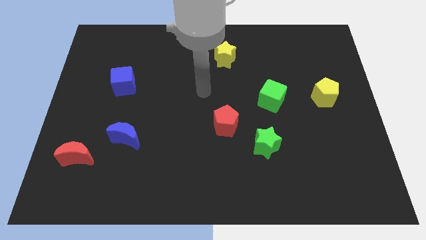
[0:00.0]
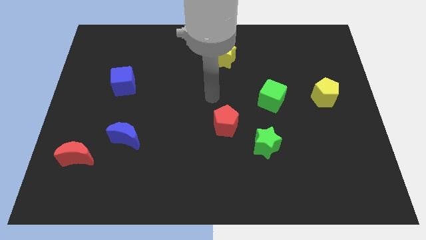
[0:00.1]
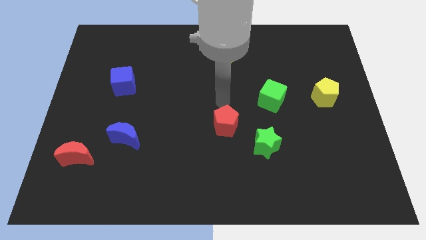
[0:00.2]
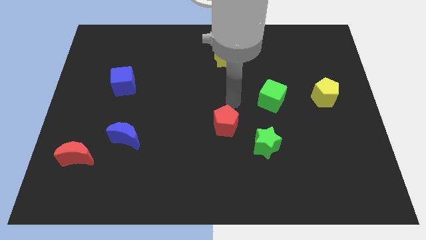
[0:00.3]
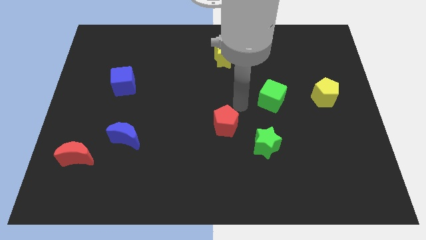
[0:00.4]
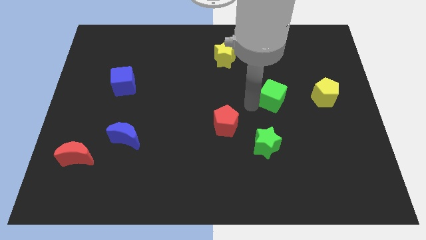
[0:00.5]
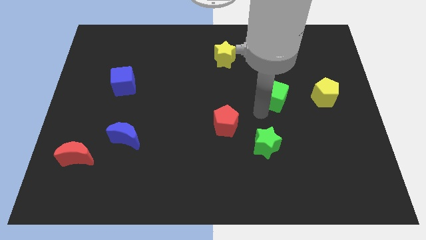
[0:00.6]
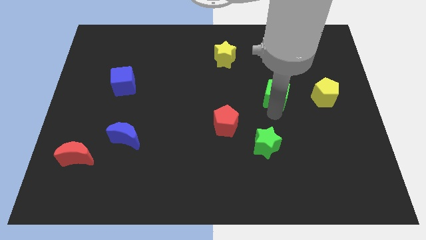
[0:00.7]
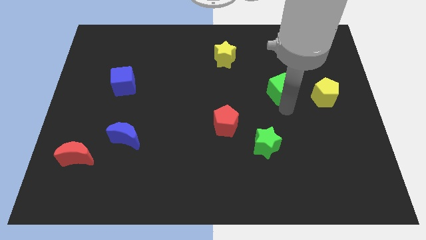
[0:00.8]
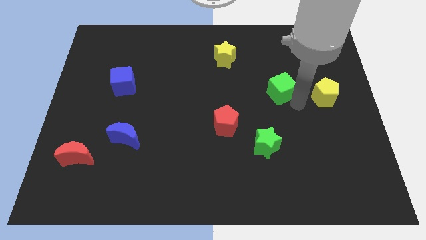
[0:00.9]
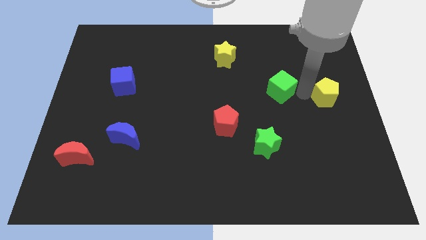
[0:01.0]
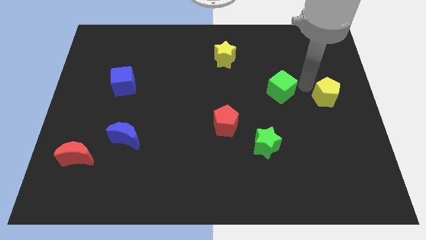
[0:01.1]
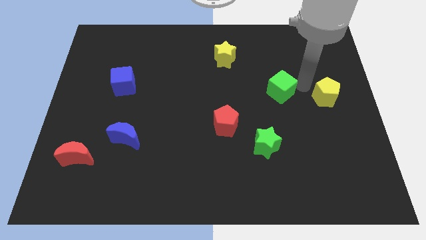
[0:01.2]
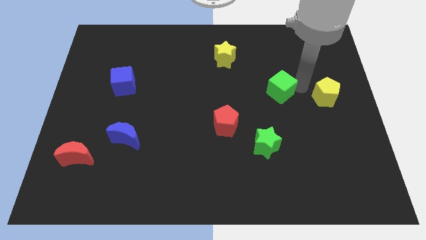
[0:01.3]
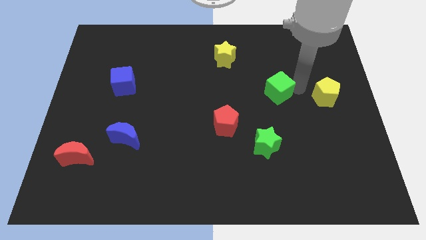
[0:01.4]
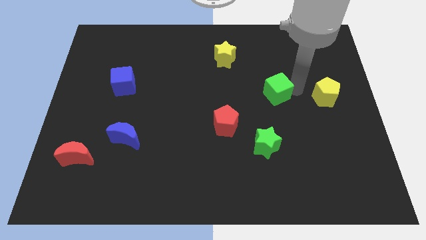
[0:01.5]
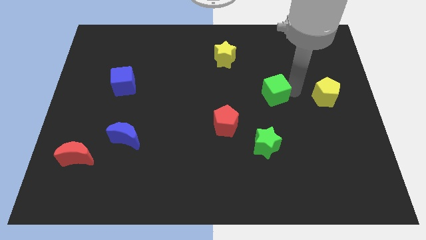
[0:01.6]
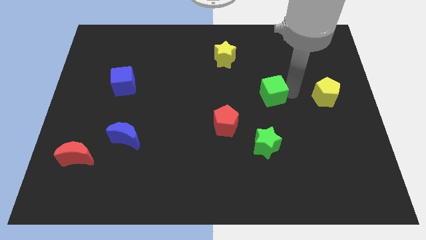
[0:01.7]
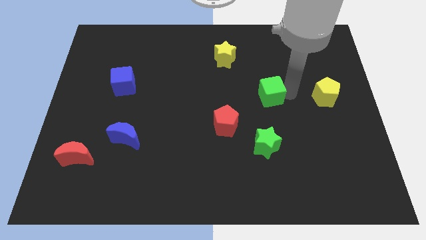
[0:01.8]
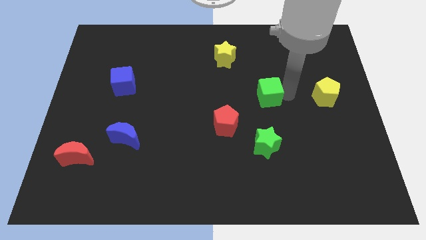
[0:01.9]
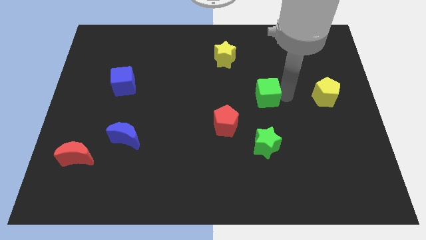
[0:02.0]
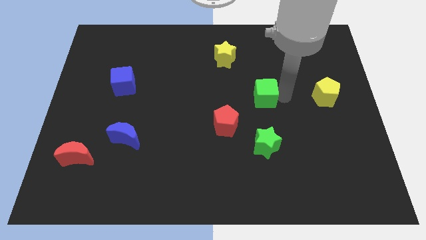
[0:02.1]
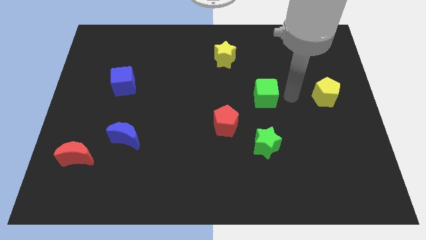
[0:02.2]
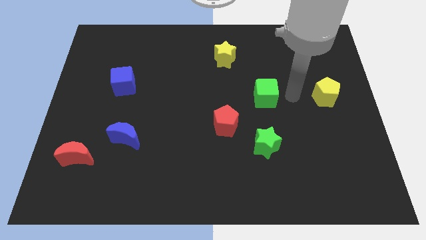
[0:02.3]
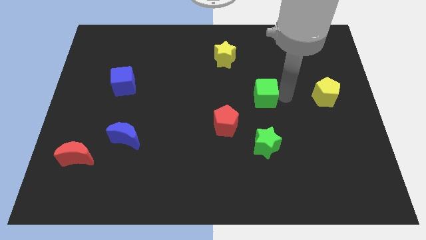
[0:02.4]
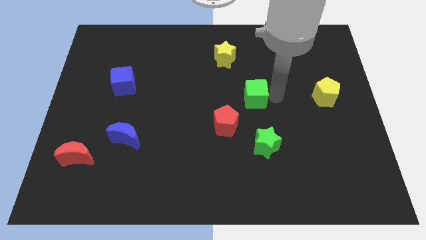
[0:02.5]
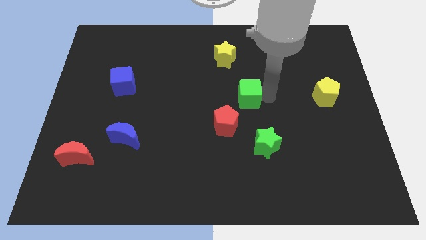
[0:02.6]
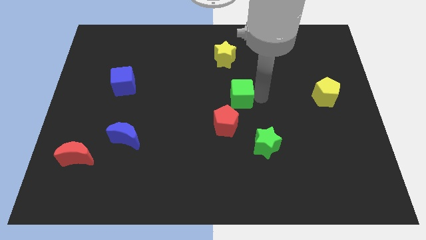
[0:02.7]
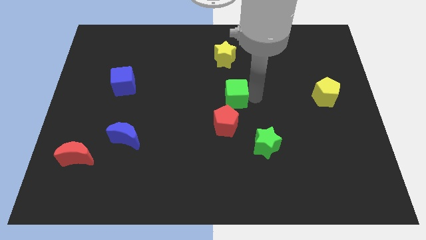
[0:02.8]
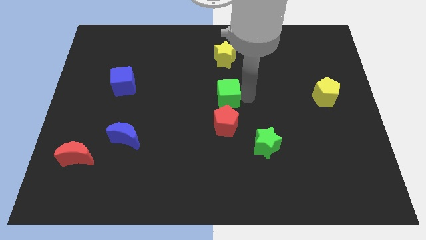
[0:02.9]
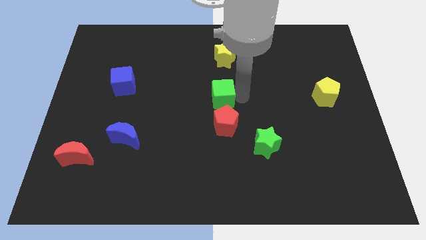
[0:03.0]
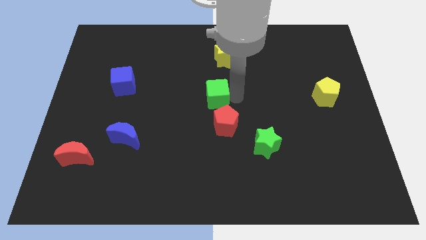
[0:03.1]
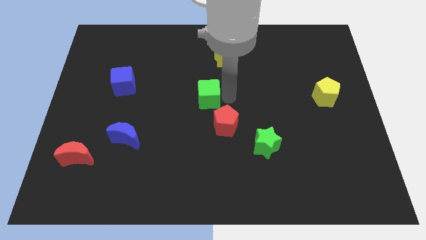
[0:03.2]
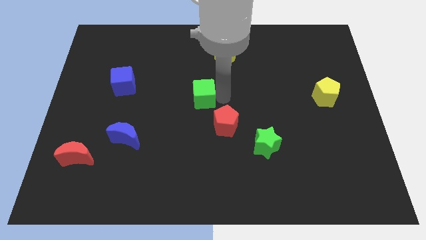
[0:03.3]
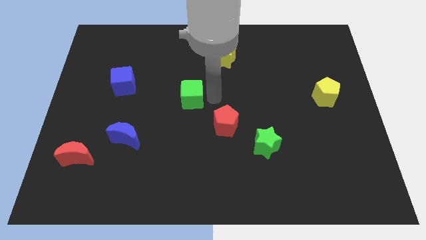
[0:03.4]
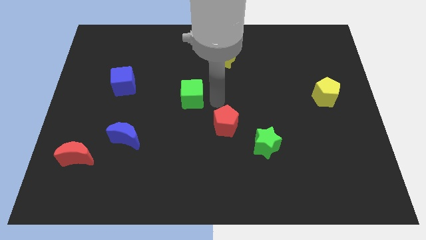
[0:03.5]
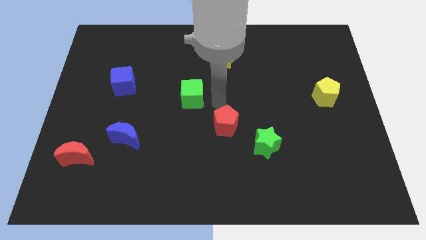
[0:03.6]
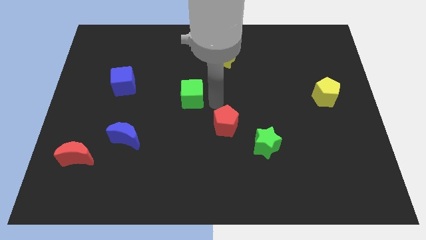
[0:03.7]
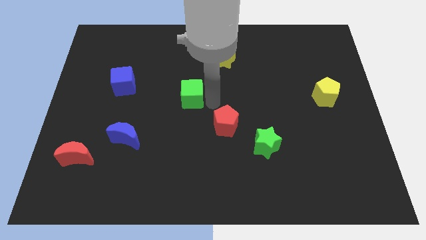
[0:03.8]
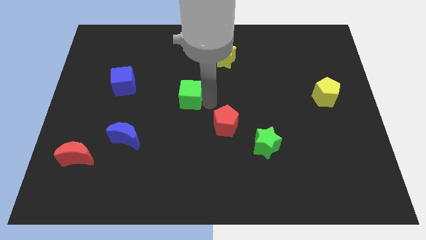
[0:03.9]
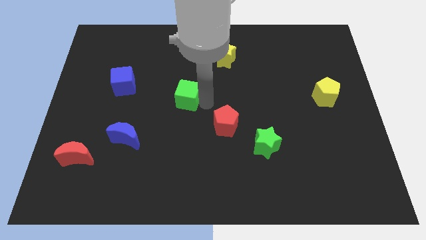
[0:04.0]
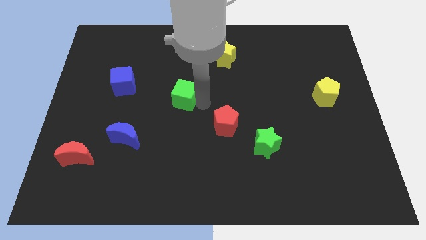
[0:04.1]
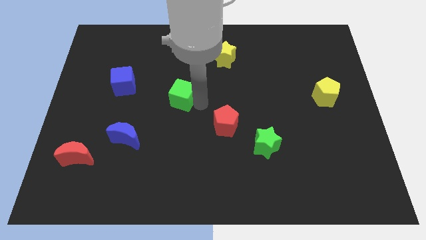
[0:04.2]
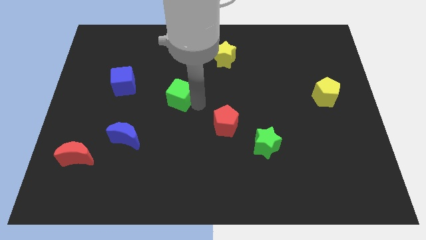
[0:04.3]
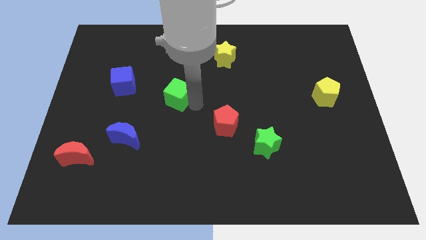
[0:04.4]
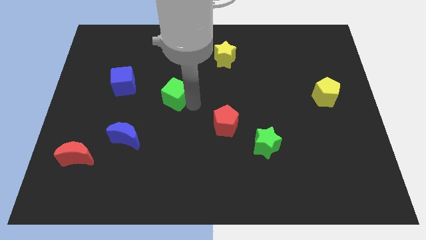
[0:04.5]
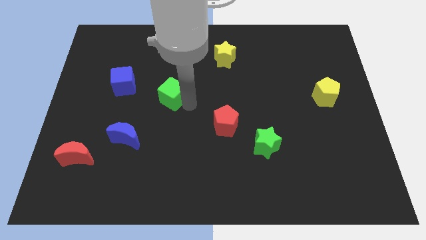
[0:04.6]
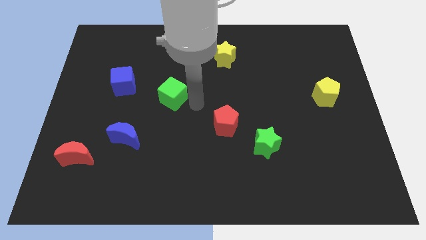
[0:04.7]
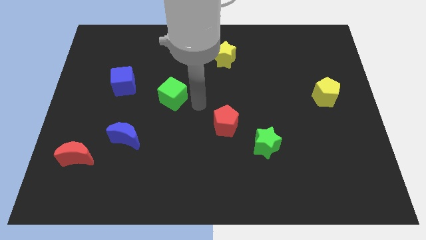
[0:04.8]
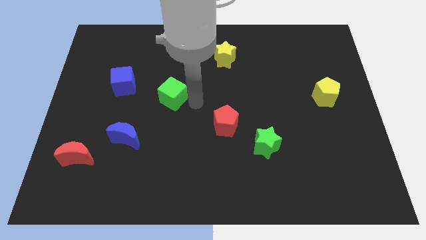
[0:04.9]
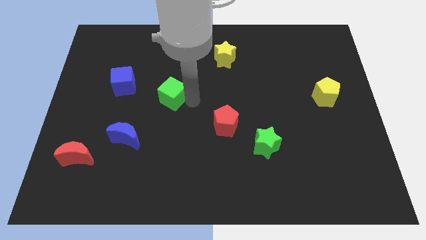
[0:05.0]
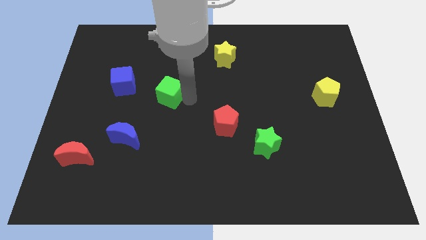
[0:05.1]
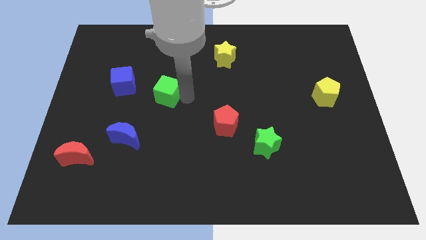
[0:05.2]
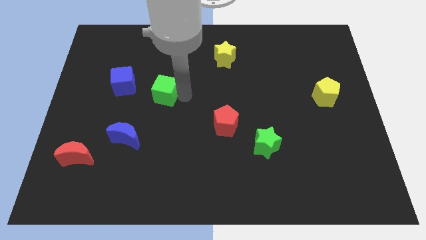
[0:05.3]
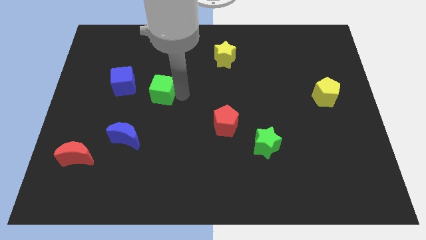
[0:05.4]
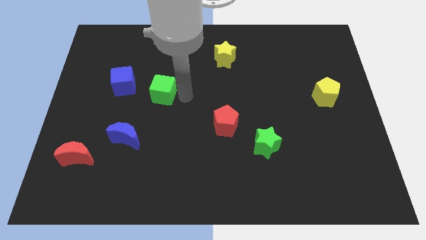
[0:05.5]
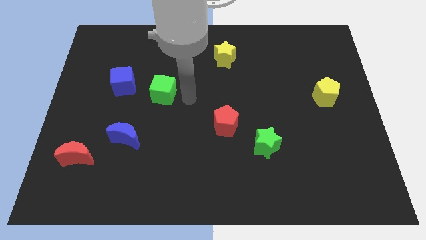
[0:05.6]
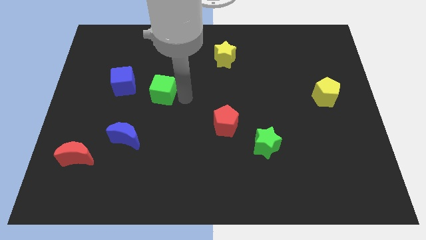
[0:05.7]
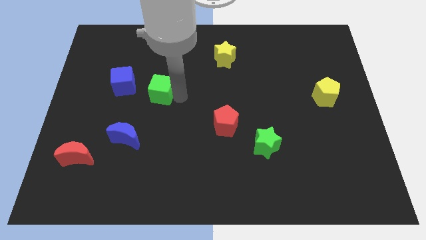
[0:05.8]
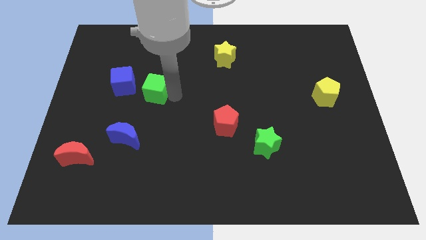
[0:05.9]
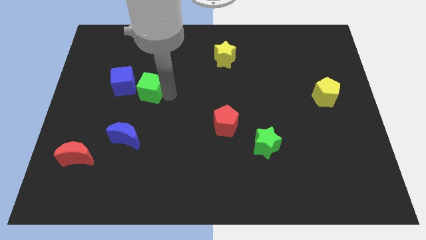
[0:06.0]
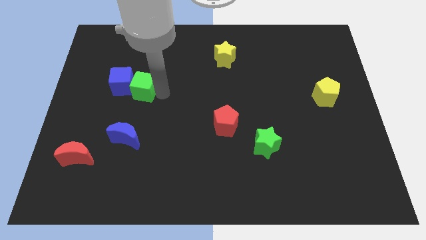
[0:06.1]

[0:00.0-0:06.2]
push the green cube next to the blue cube

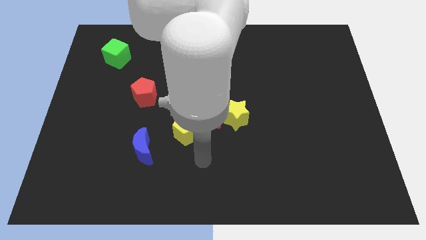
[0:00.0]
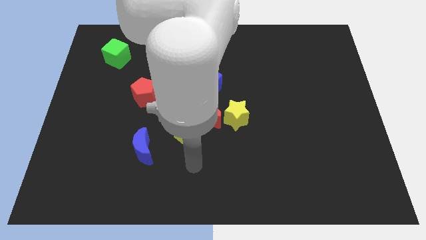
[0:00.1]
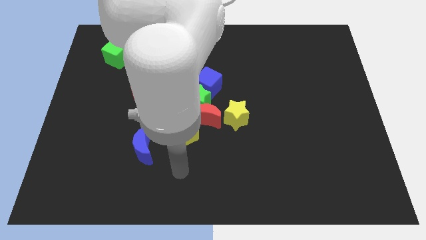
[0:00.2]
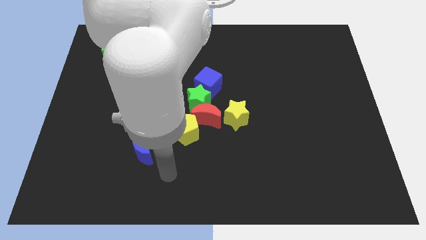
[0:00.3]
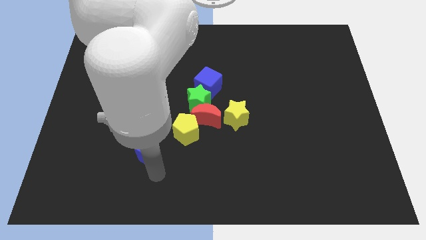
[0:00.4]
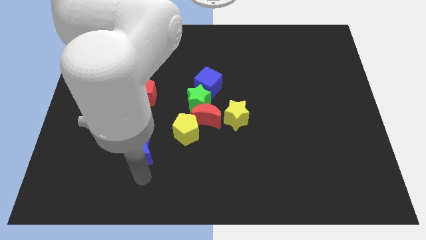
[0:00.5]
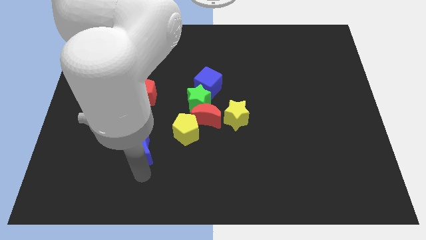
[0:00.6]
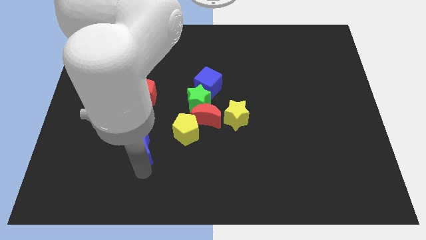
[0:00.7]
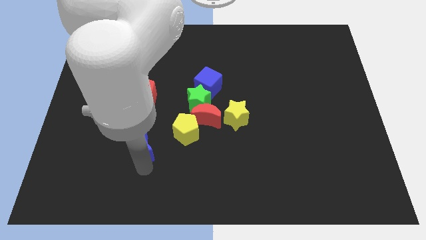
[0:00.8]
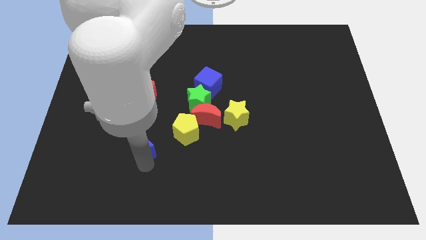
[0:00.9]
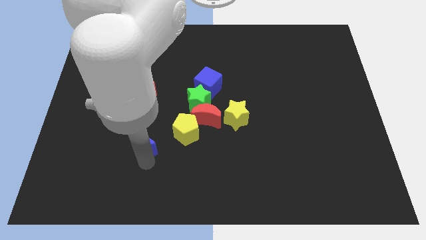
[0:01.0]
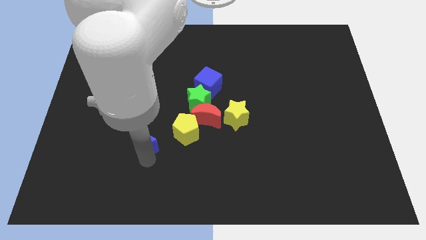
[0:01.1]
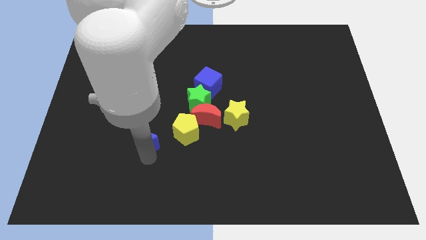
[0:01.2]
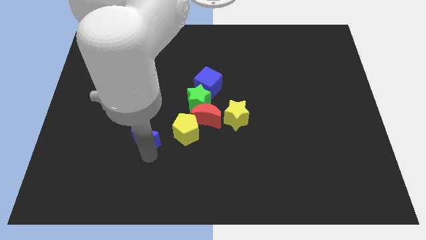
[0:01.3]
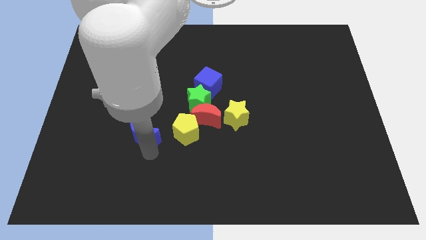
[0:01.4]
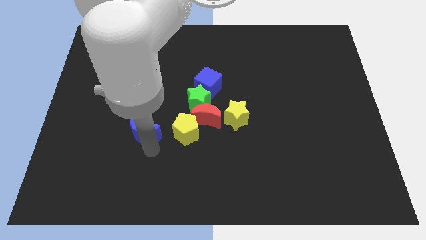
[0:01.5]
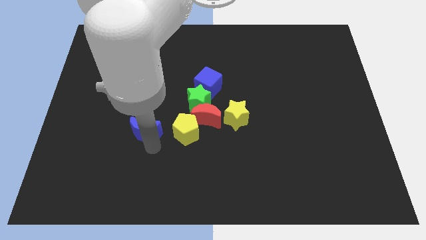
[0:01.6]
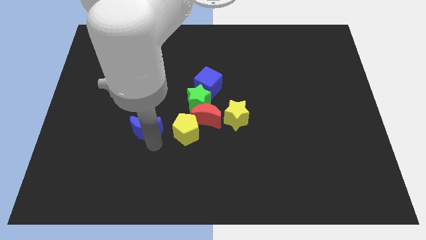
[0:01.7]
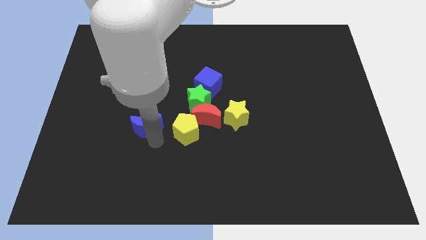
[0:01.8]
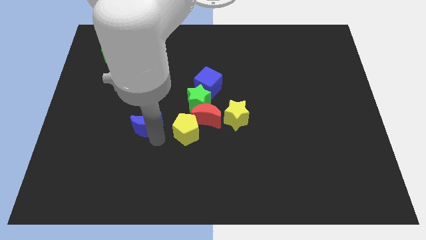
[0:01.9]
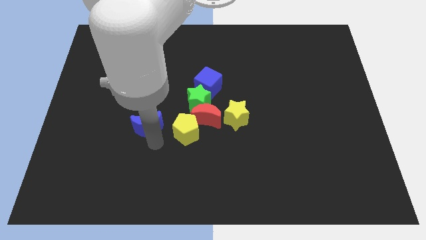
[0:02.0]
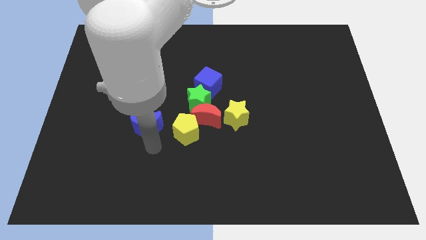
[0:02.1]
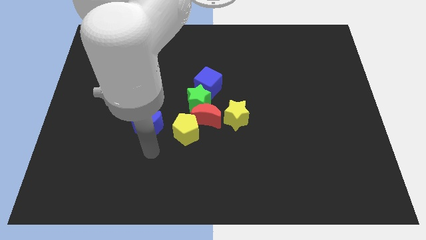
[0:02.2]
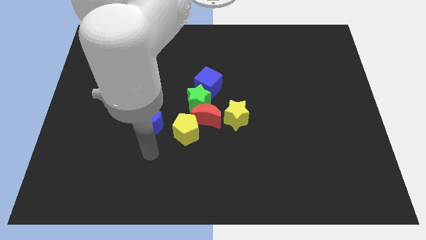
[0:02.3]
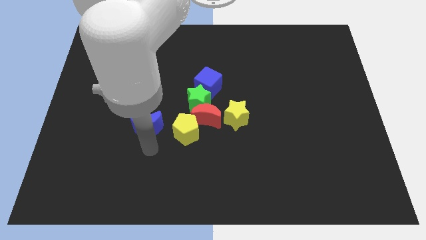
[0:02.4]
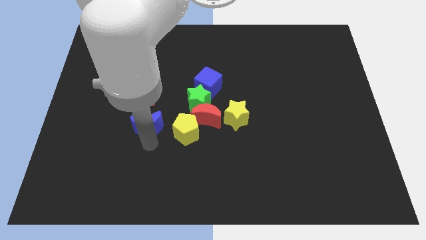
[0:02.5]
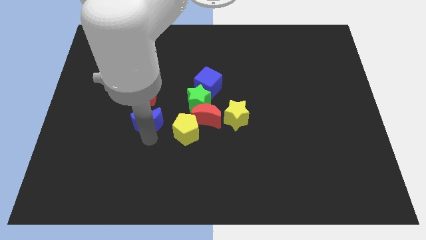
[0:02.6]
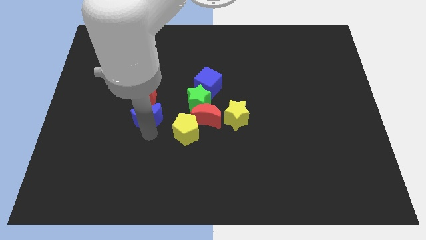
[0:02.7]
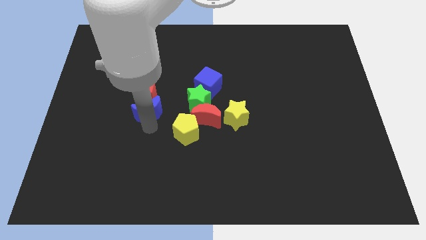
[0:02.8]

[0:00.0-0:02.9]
move the blue moon close to the red pentagon
